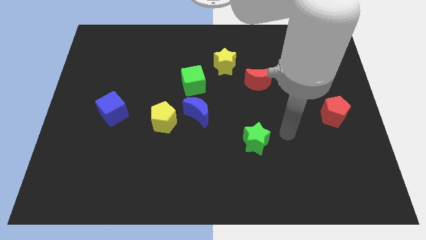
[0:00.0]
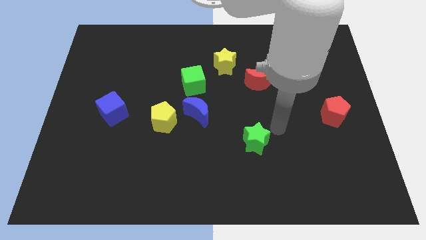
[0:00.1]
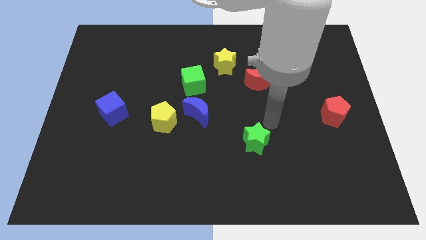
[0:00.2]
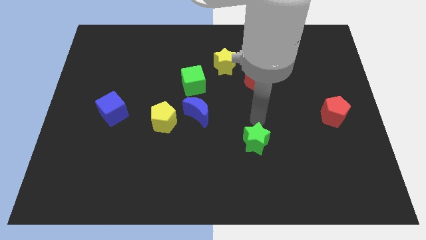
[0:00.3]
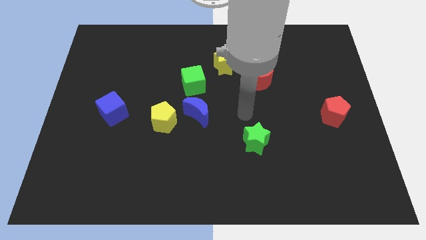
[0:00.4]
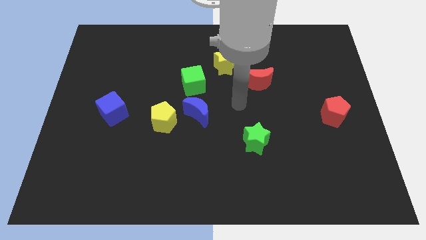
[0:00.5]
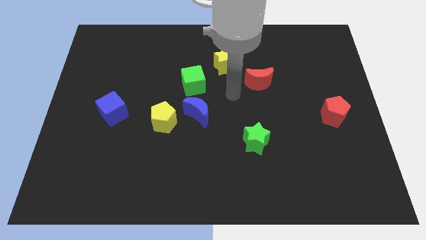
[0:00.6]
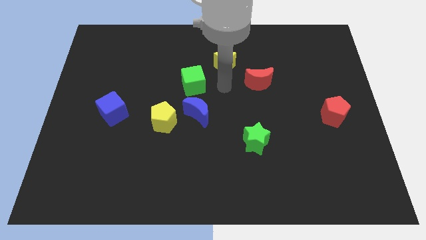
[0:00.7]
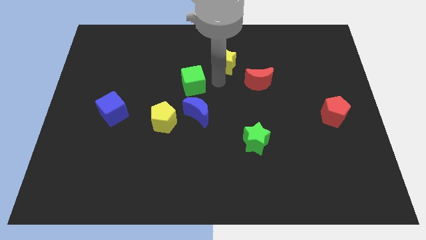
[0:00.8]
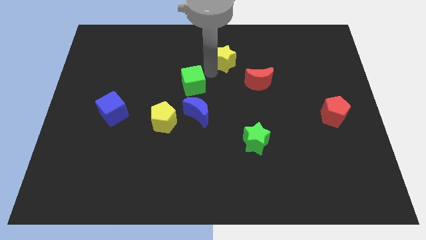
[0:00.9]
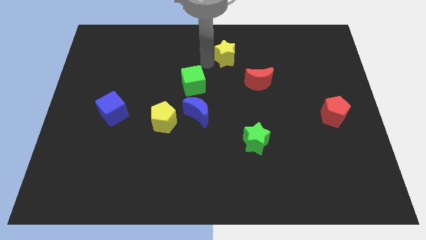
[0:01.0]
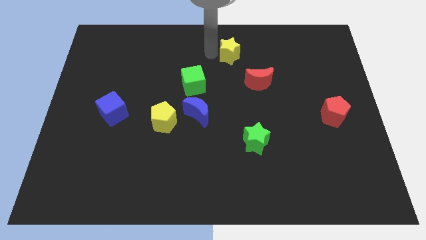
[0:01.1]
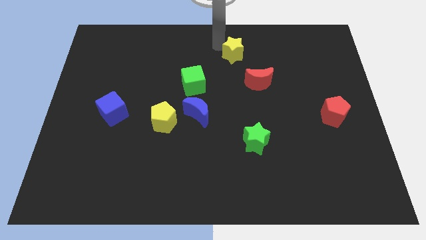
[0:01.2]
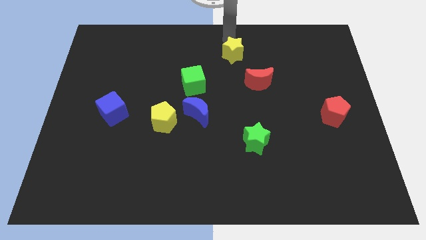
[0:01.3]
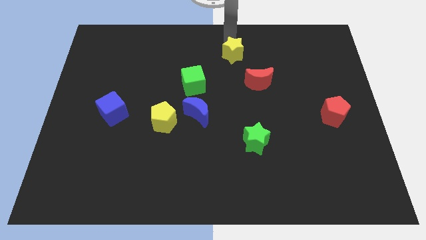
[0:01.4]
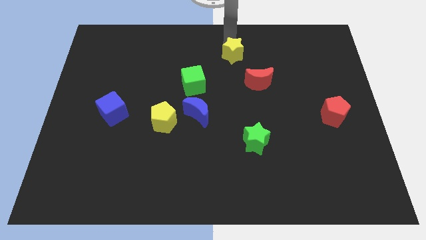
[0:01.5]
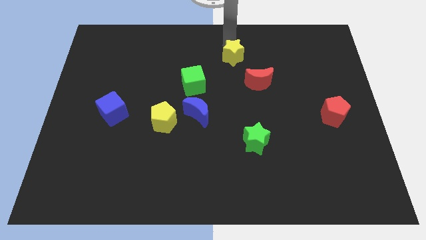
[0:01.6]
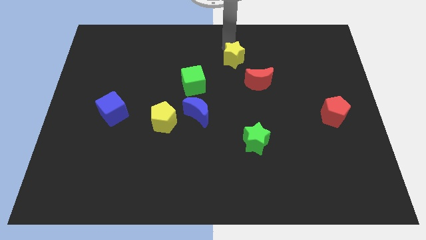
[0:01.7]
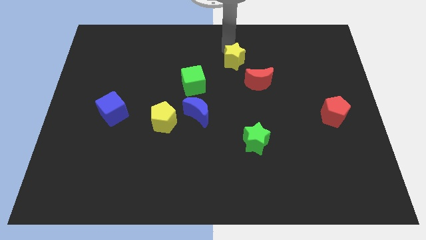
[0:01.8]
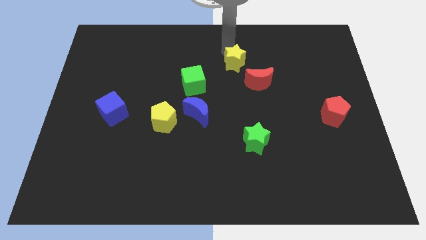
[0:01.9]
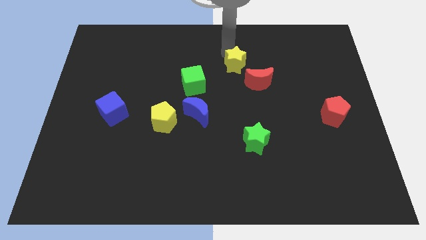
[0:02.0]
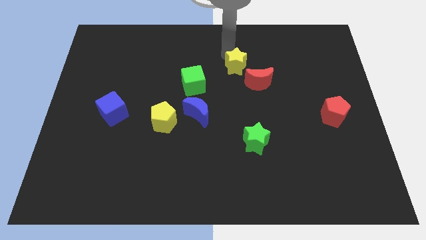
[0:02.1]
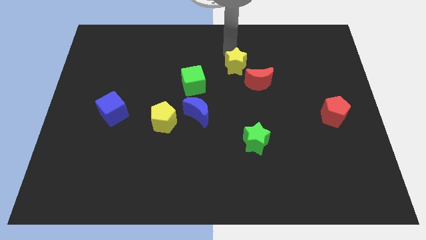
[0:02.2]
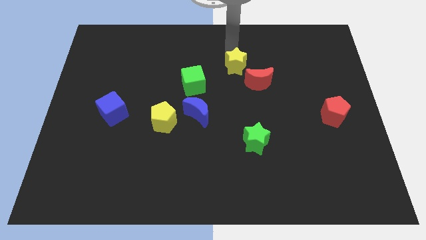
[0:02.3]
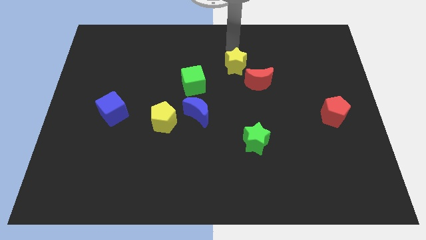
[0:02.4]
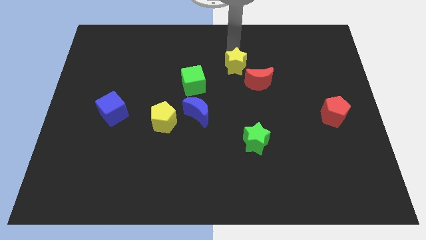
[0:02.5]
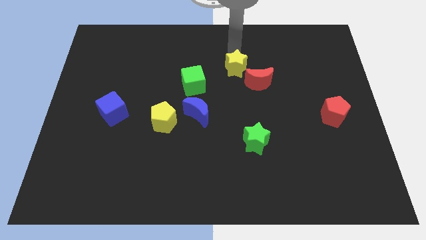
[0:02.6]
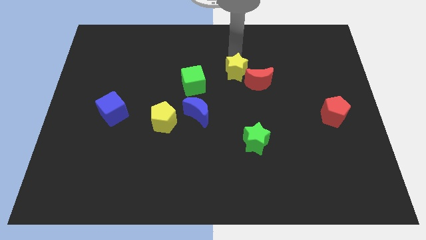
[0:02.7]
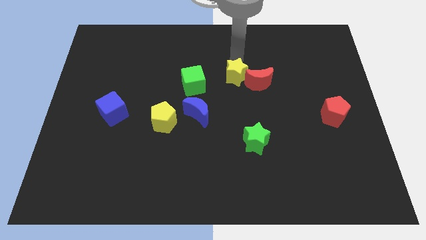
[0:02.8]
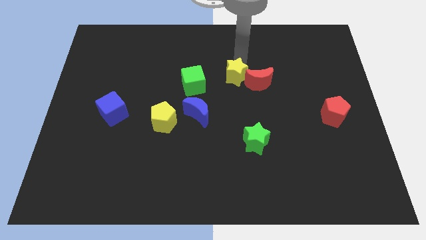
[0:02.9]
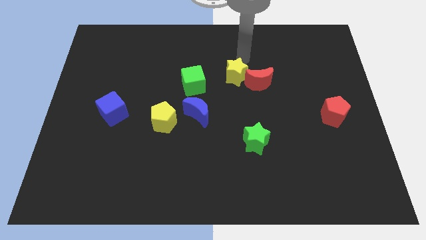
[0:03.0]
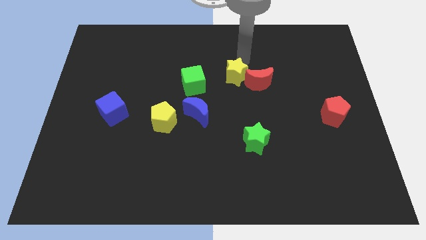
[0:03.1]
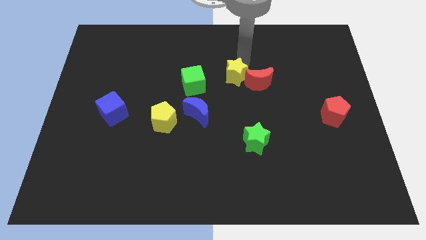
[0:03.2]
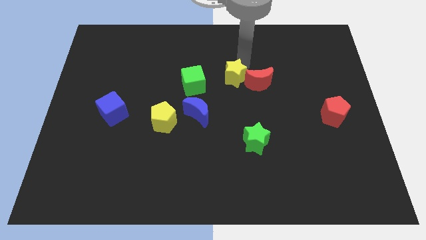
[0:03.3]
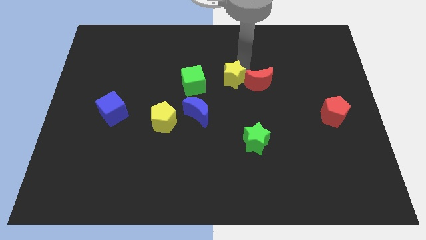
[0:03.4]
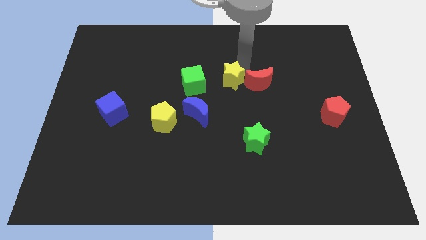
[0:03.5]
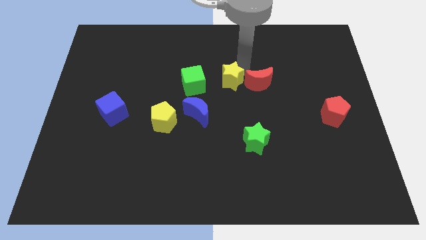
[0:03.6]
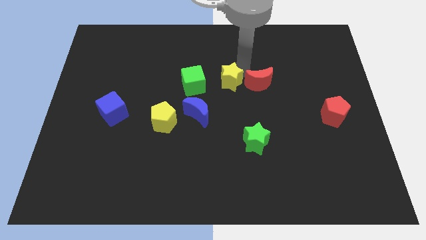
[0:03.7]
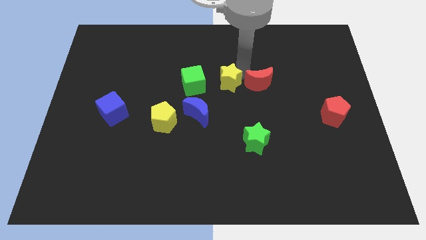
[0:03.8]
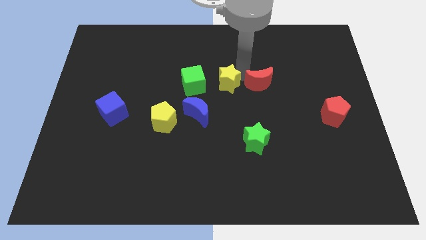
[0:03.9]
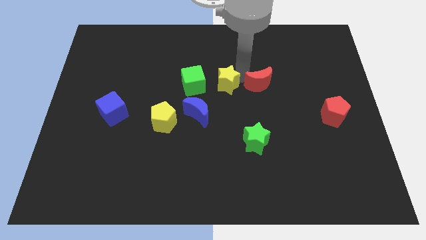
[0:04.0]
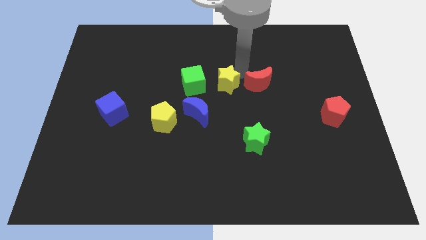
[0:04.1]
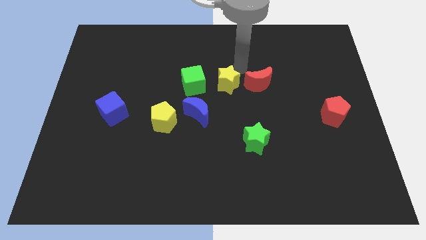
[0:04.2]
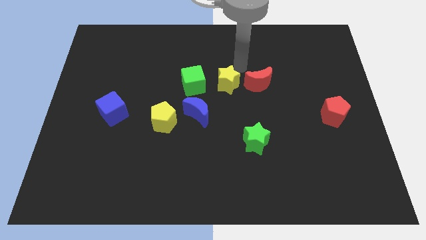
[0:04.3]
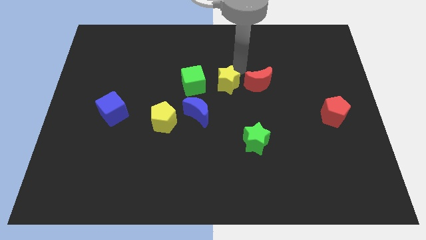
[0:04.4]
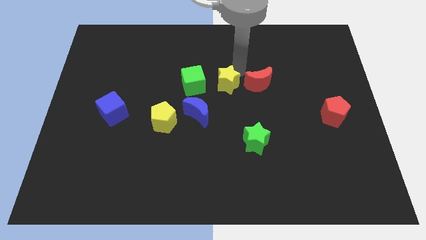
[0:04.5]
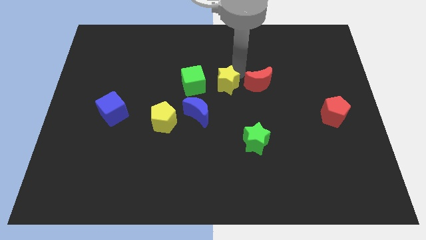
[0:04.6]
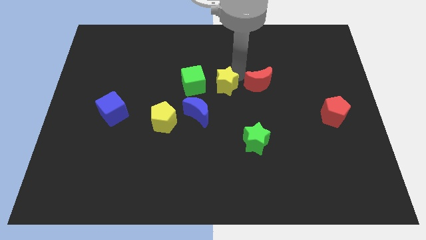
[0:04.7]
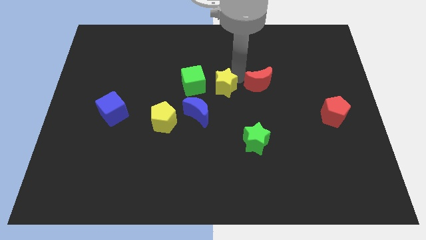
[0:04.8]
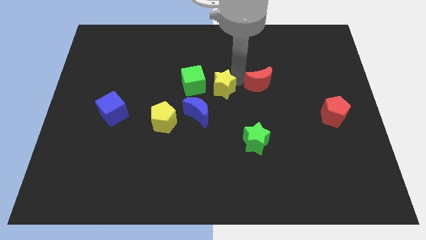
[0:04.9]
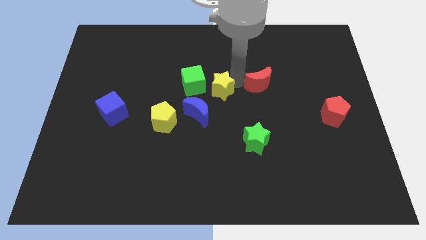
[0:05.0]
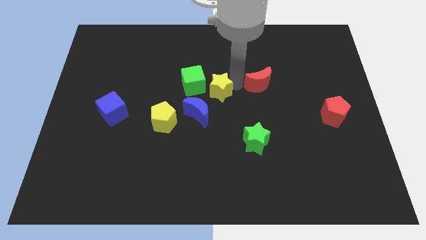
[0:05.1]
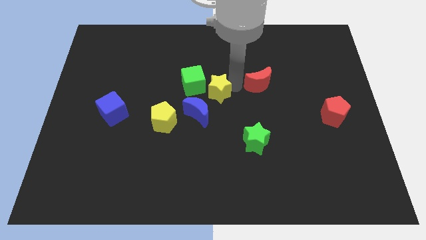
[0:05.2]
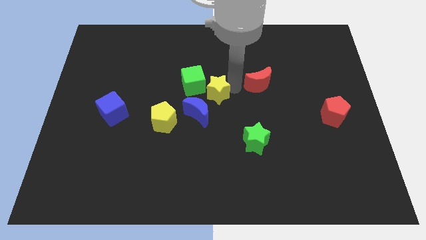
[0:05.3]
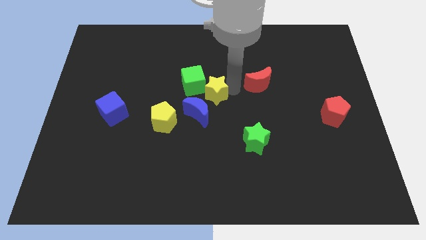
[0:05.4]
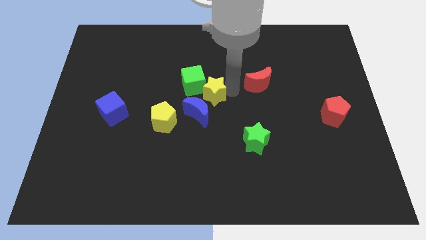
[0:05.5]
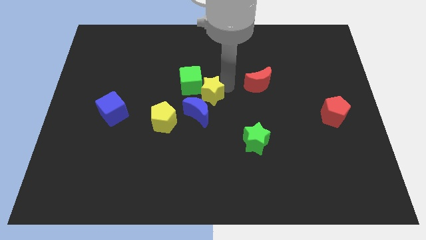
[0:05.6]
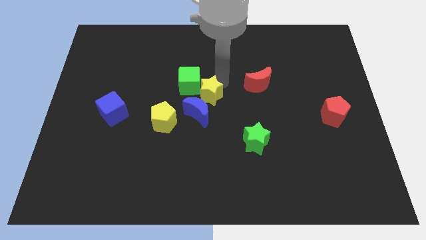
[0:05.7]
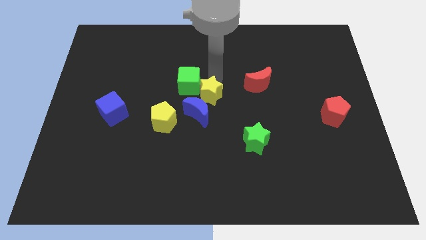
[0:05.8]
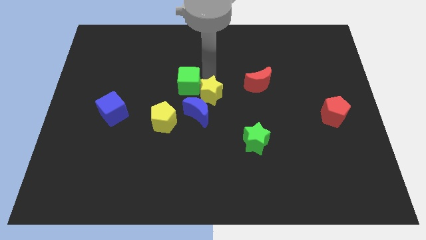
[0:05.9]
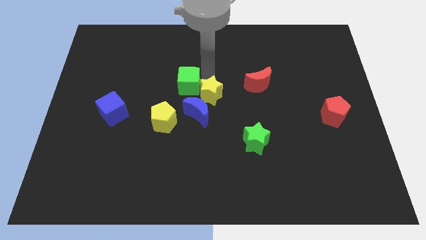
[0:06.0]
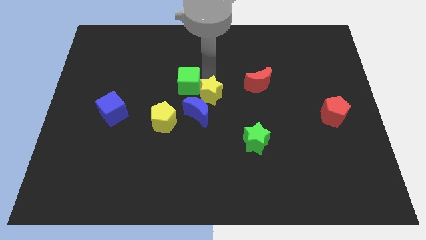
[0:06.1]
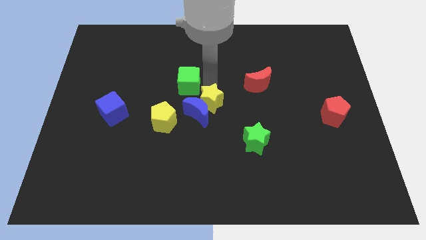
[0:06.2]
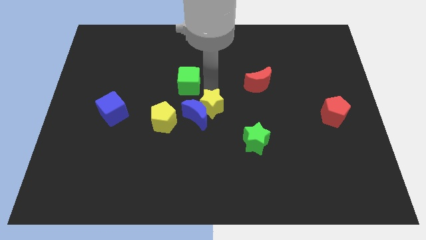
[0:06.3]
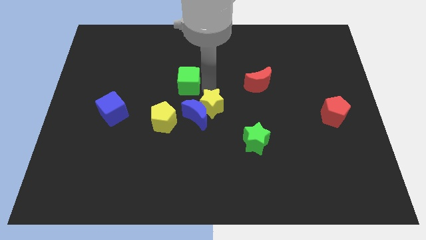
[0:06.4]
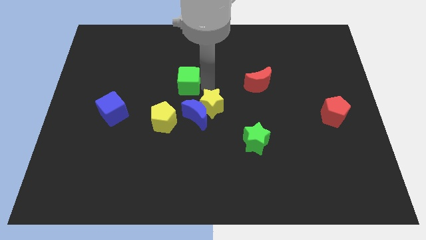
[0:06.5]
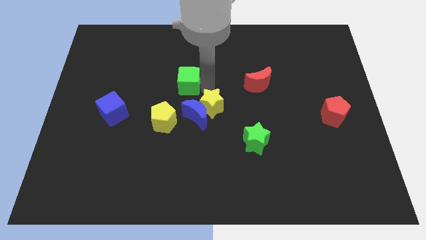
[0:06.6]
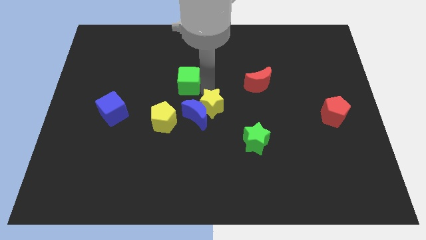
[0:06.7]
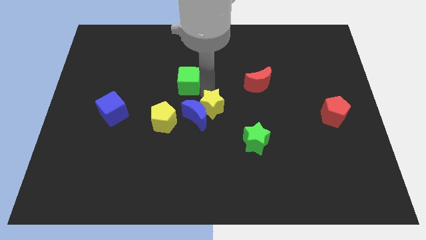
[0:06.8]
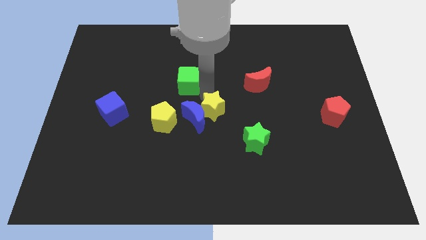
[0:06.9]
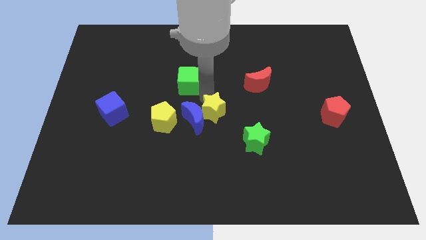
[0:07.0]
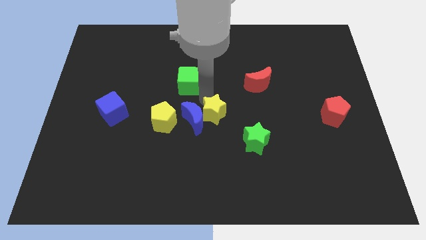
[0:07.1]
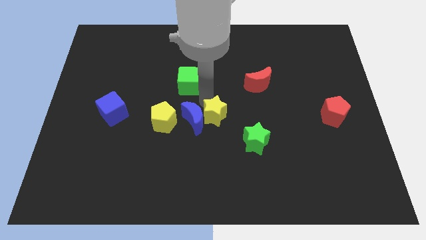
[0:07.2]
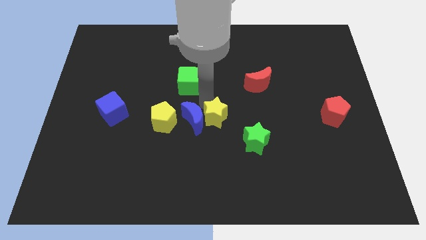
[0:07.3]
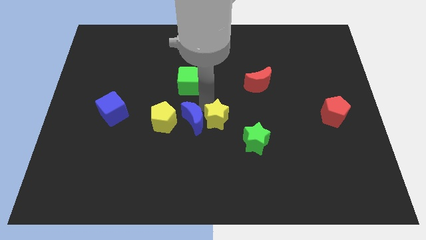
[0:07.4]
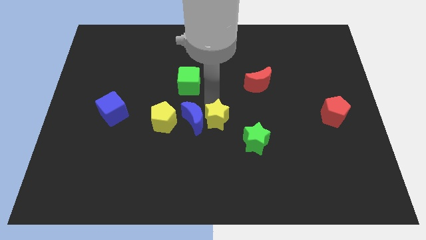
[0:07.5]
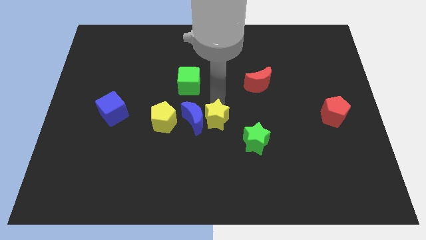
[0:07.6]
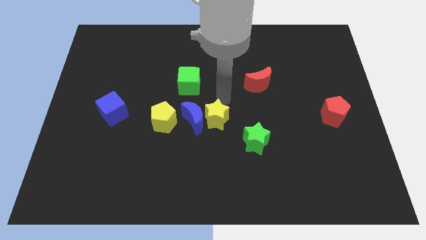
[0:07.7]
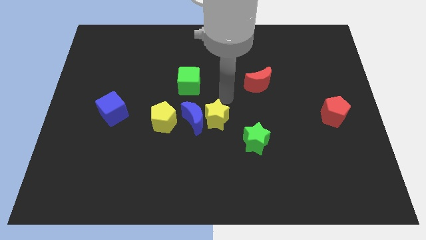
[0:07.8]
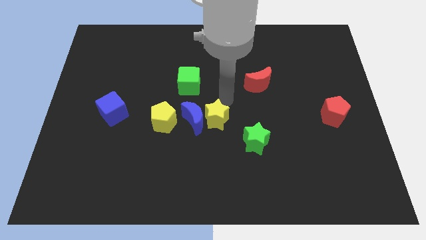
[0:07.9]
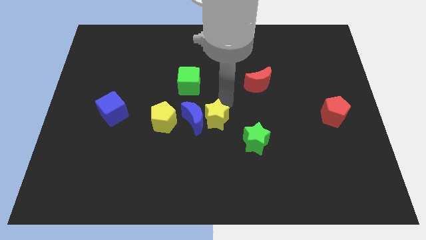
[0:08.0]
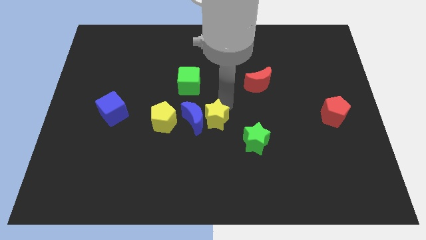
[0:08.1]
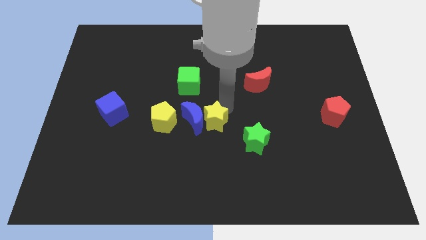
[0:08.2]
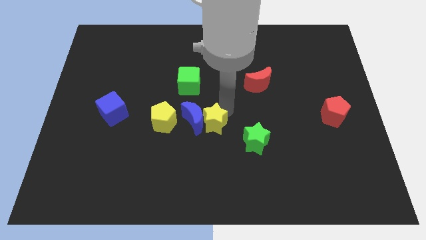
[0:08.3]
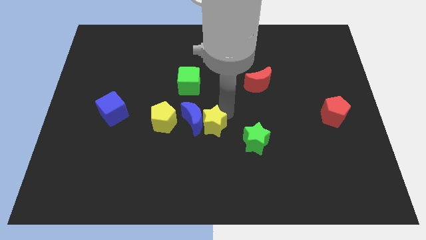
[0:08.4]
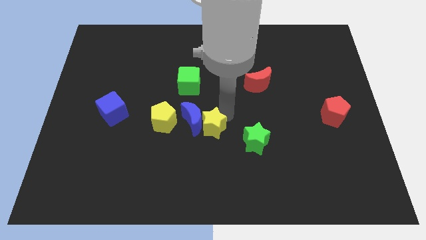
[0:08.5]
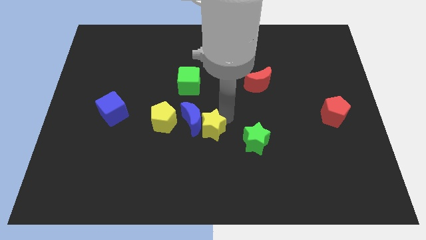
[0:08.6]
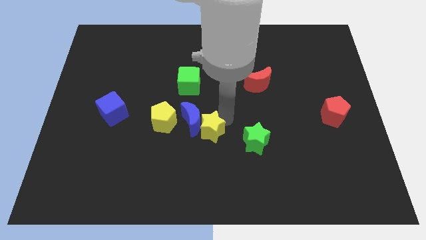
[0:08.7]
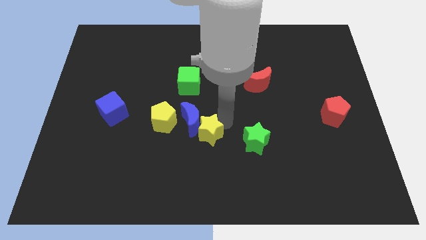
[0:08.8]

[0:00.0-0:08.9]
slide the yellow star to the bottom side of the blue moon
